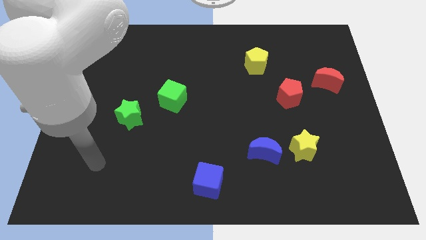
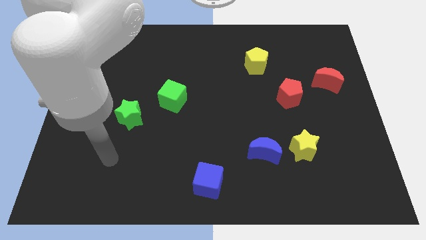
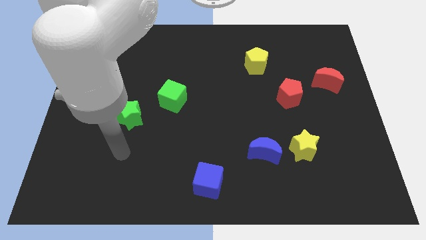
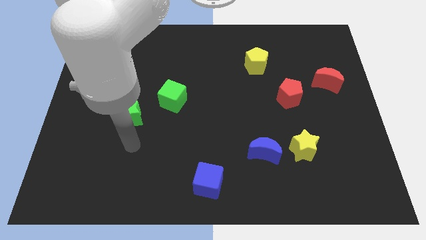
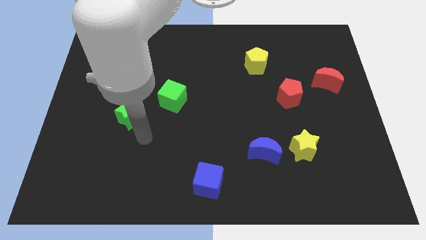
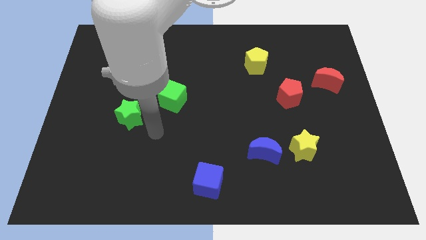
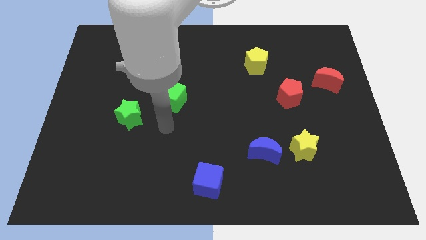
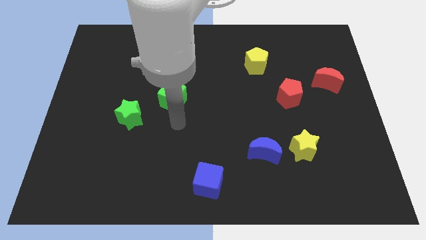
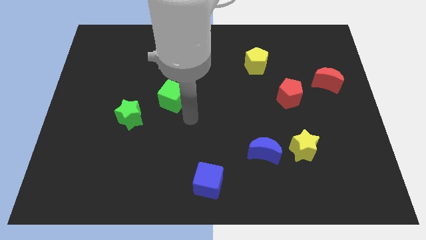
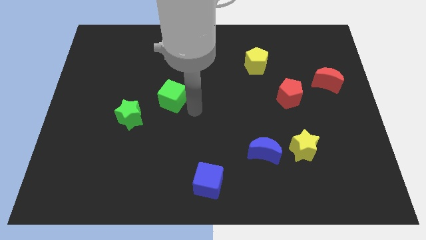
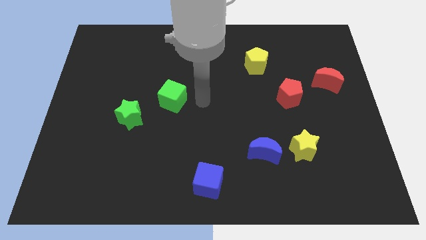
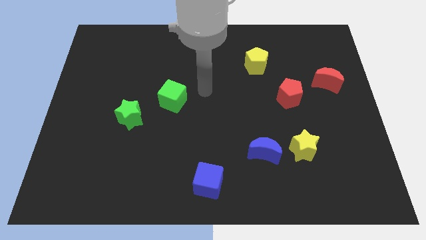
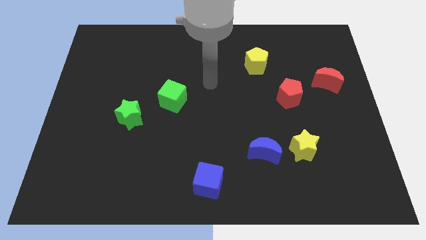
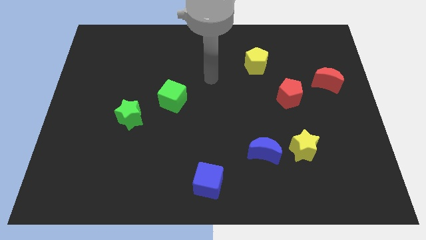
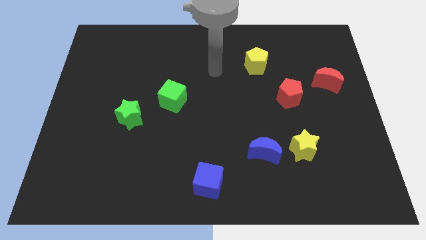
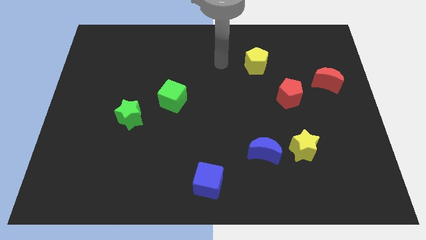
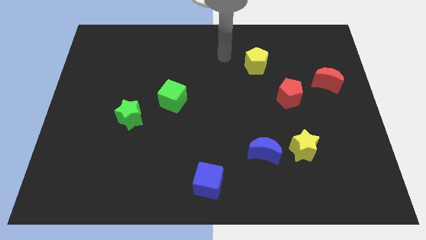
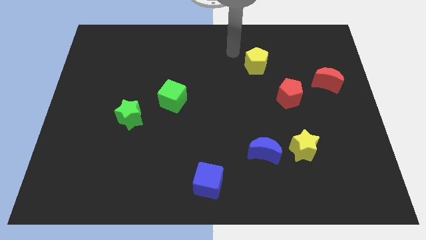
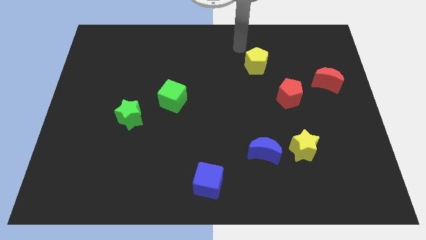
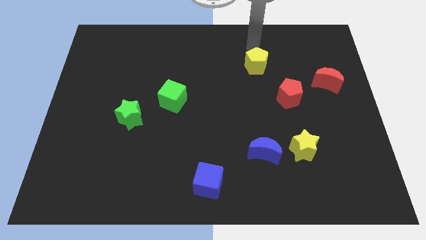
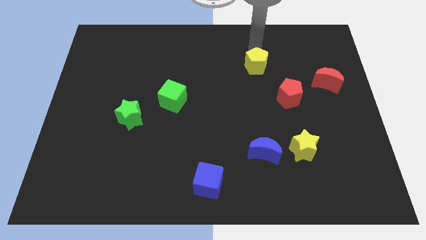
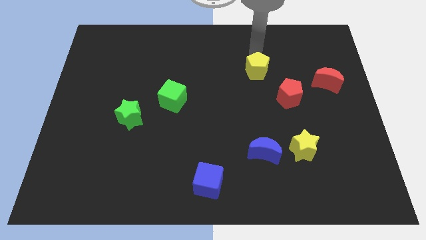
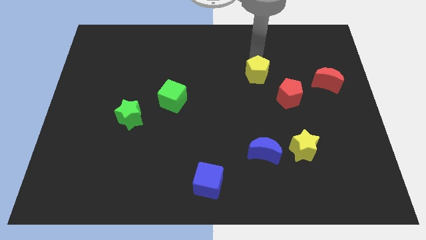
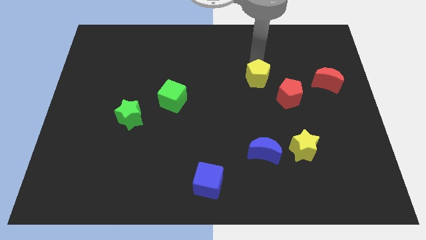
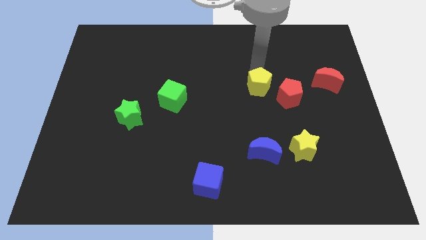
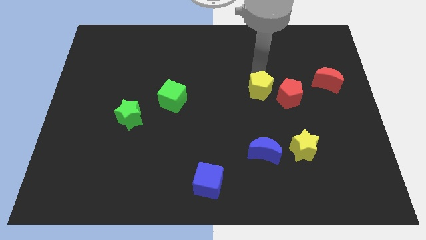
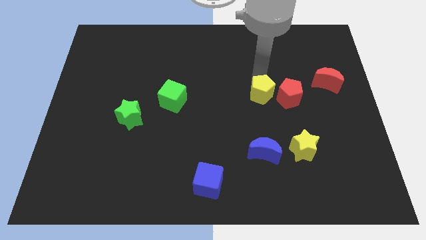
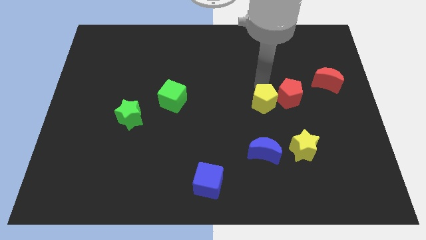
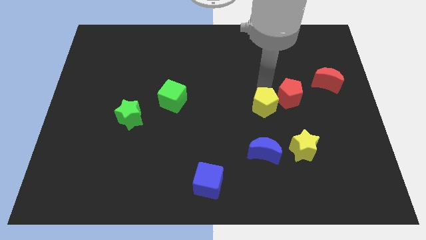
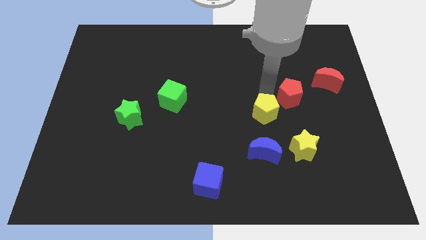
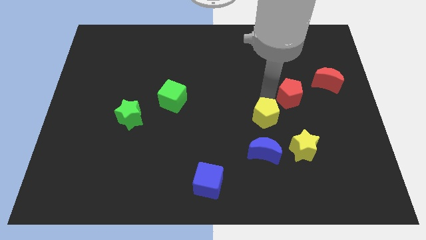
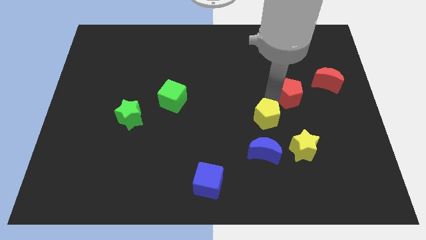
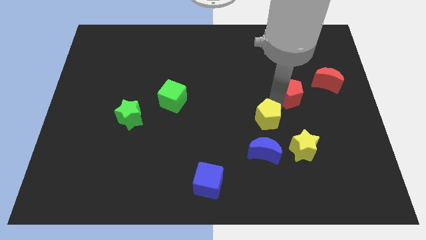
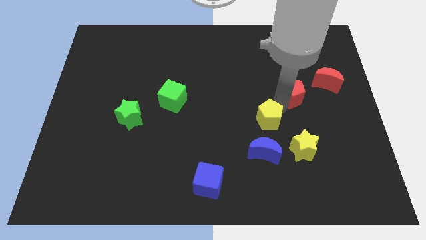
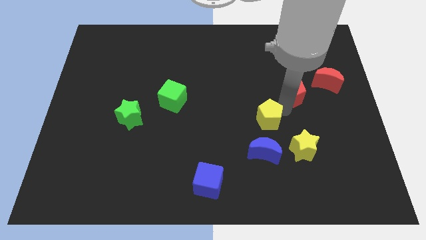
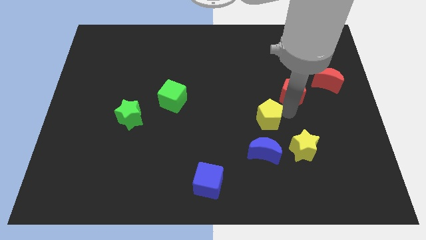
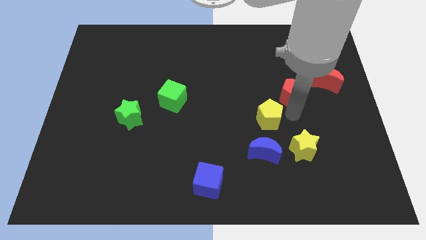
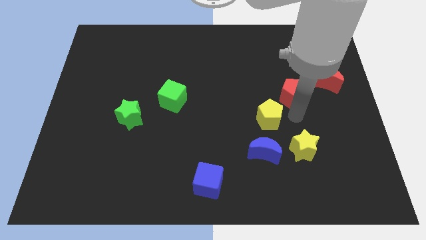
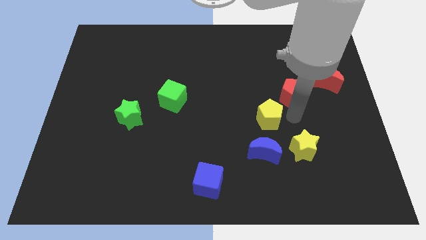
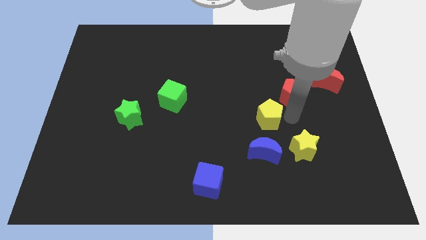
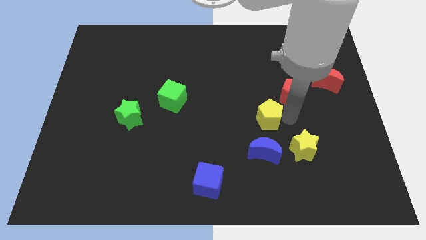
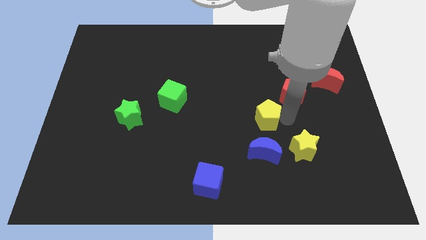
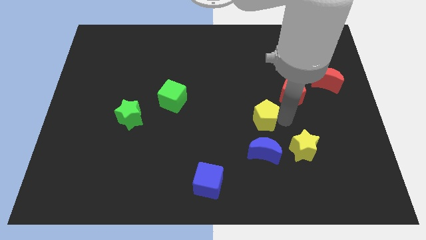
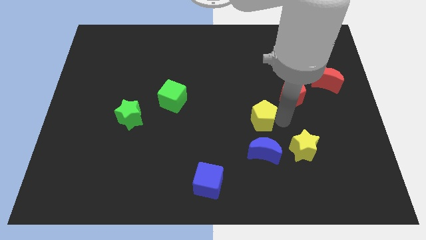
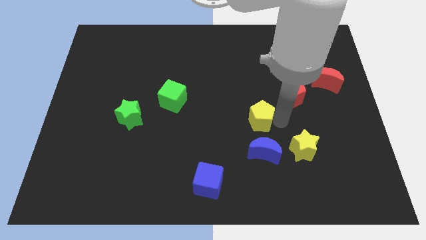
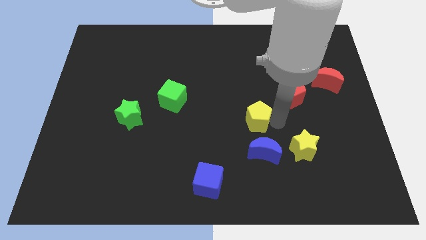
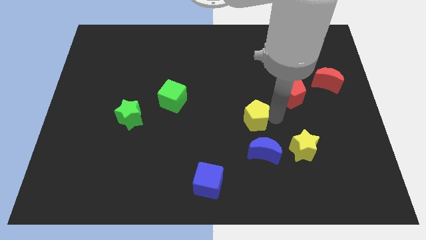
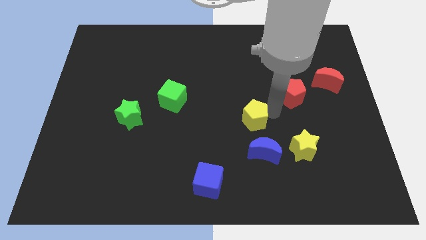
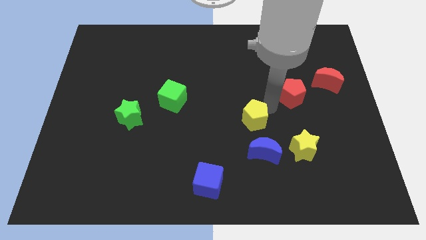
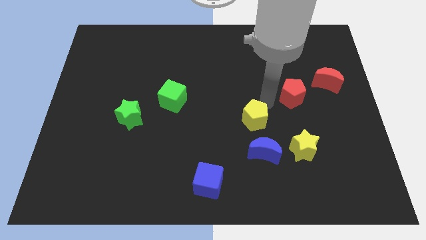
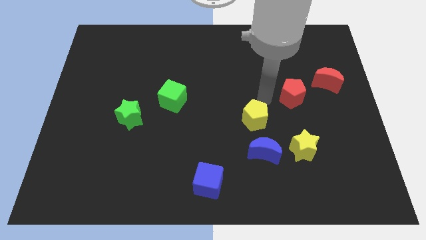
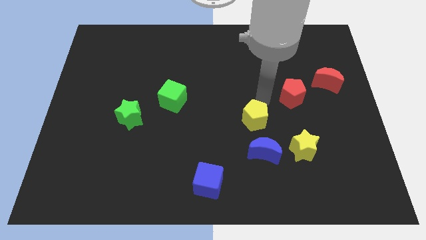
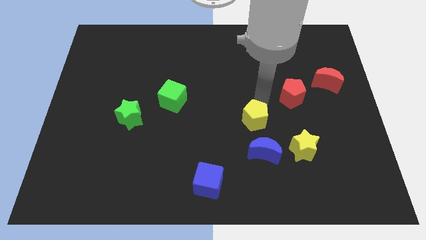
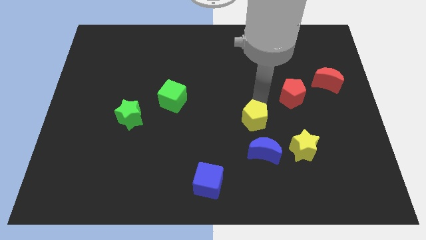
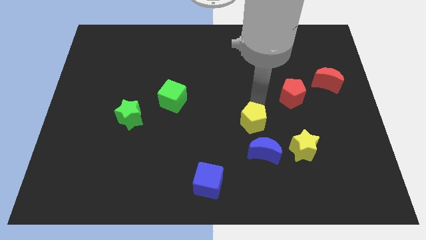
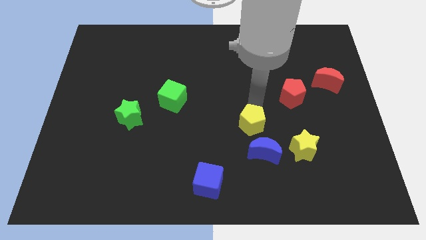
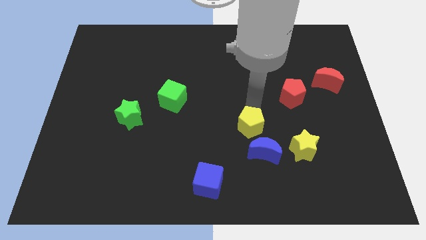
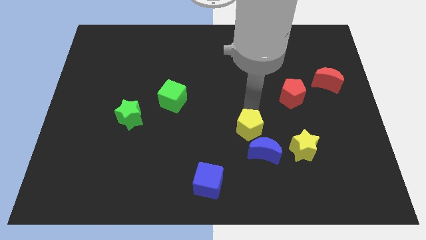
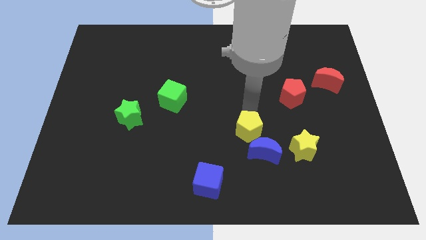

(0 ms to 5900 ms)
slide the yellow pentagon down

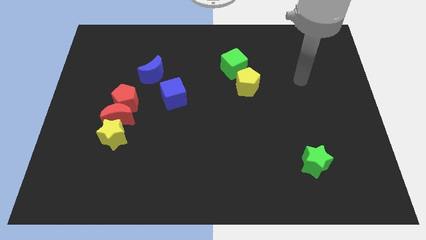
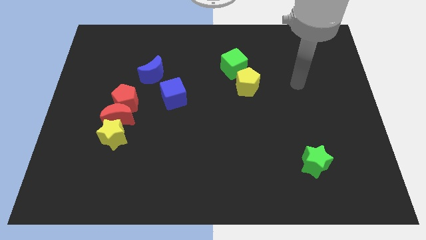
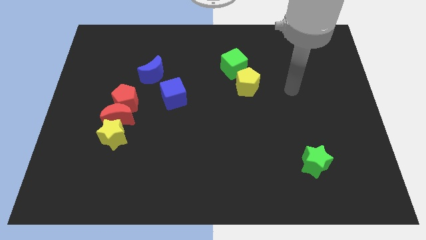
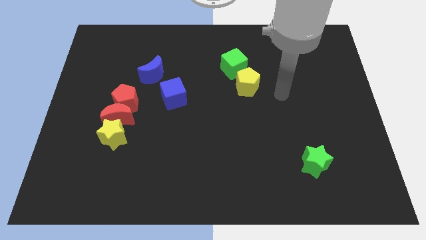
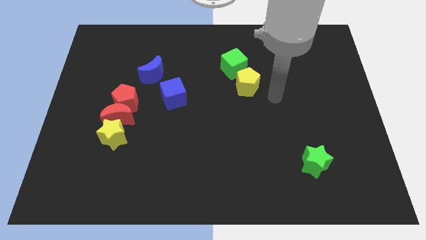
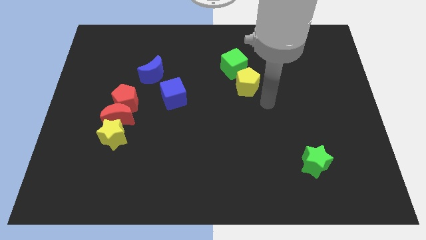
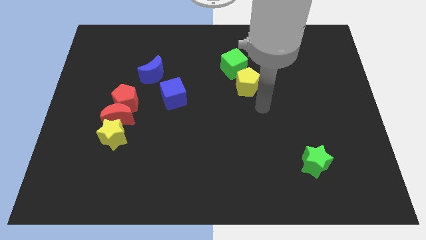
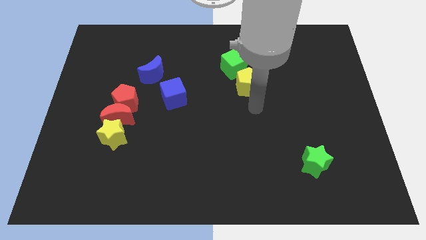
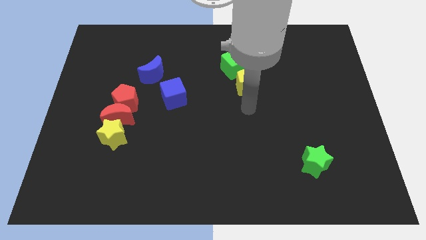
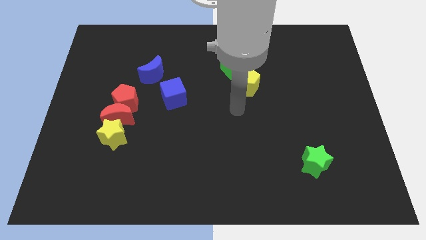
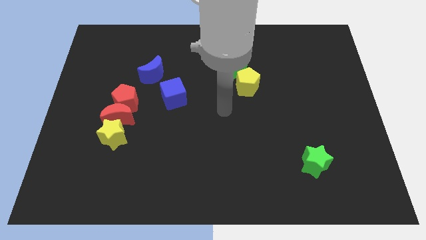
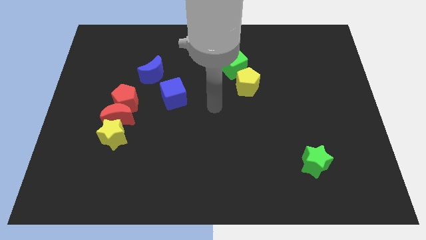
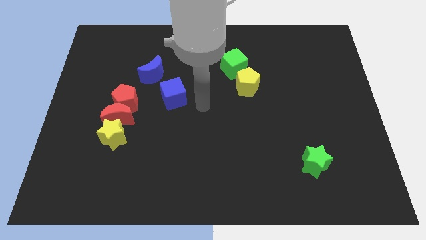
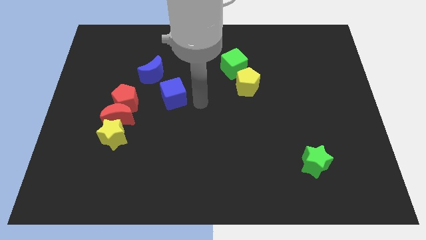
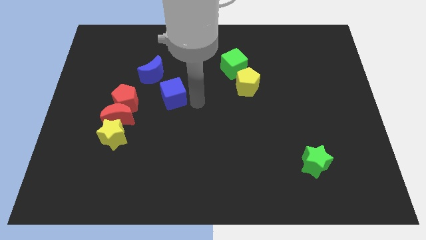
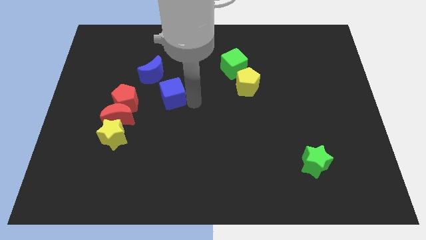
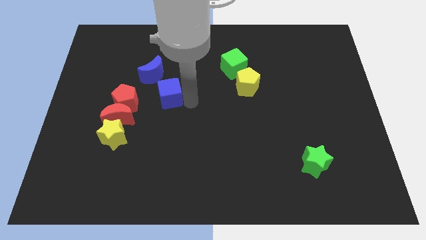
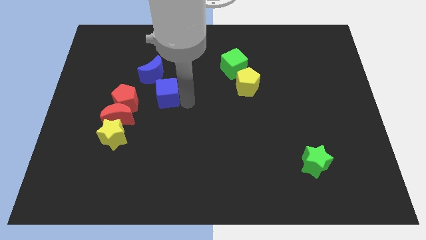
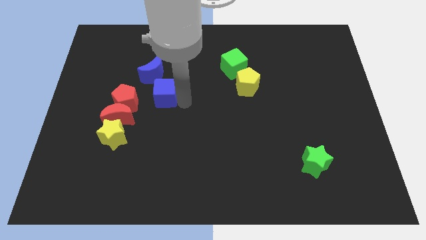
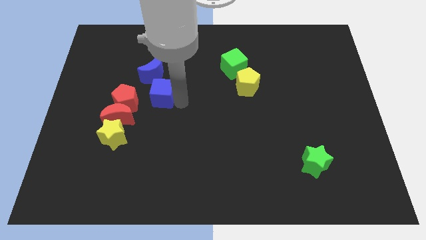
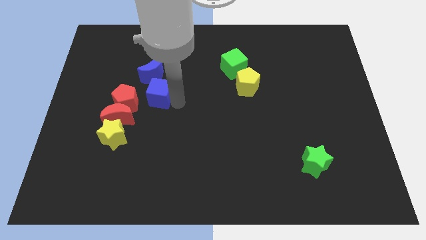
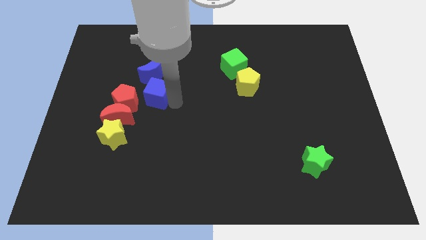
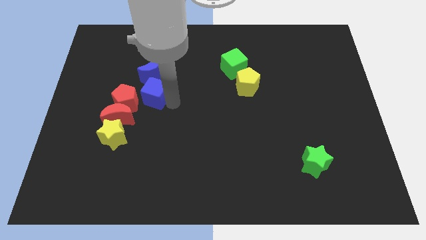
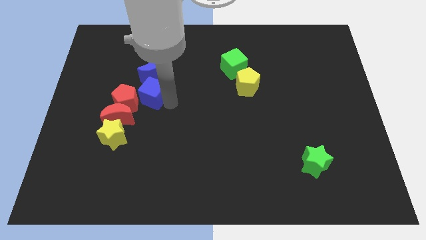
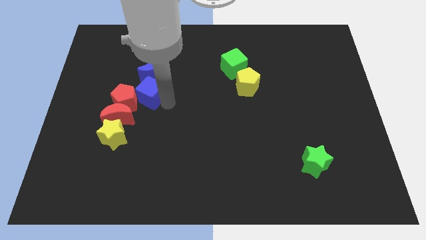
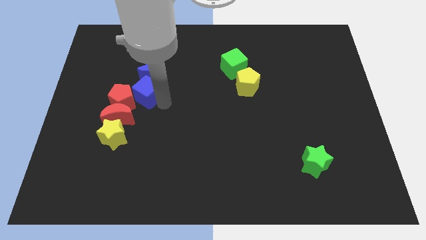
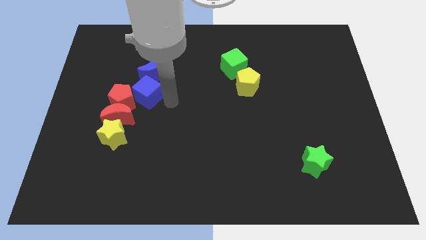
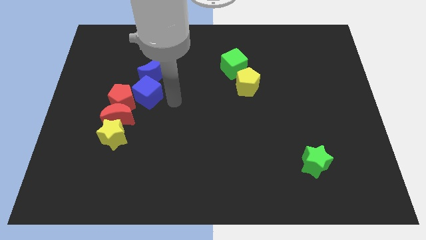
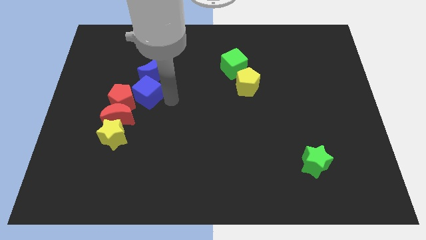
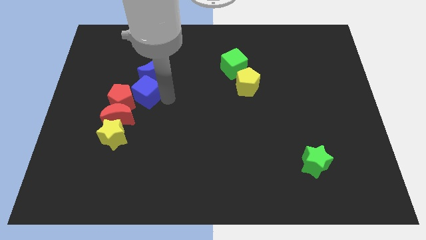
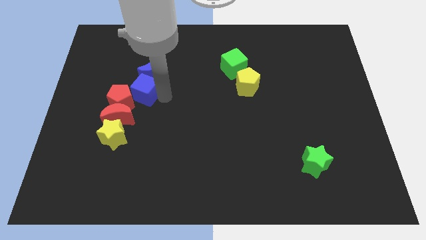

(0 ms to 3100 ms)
push the blue cube a little left
